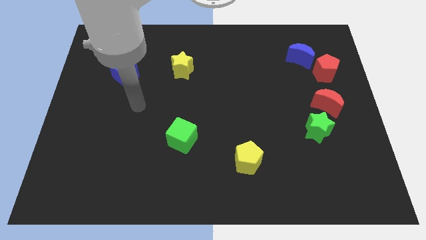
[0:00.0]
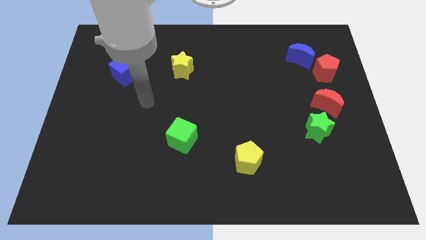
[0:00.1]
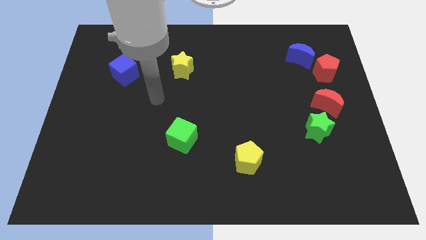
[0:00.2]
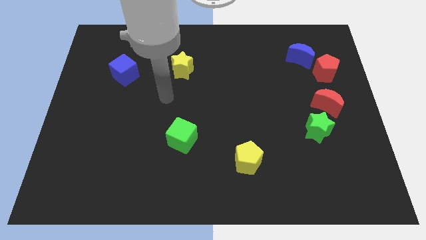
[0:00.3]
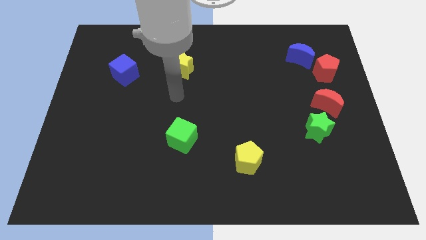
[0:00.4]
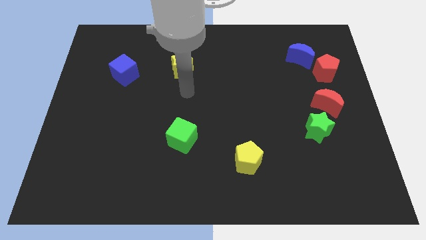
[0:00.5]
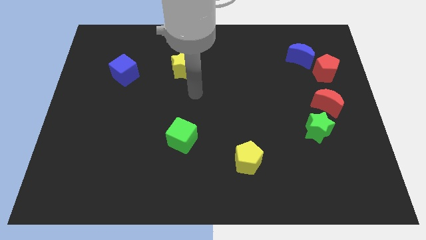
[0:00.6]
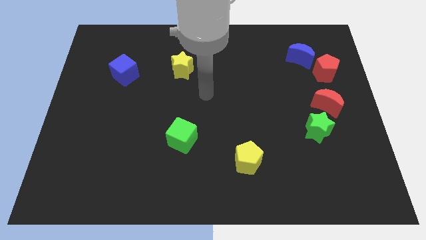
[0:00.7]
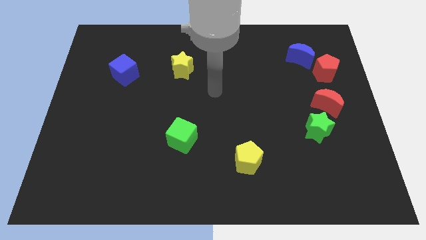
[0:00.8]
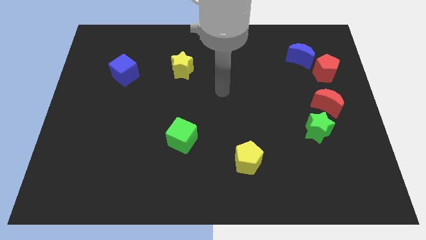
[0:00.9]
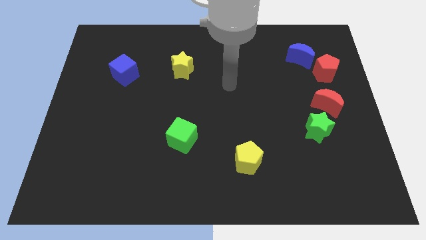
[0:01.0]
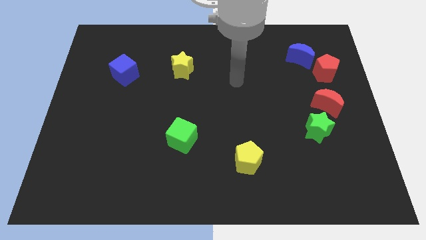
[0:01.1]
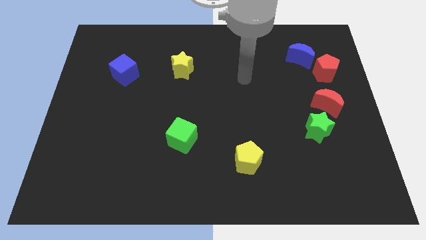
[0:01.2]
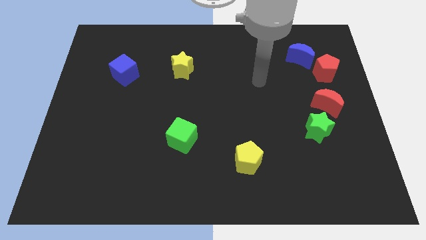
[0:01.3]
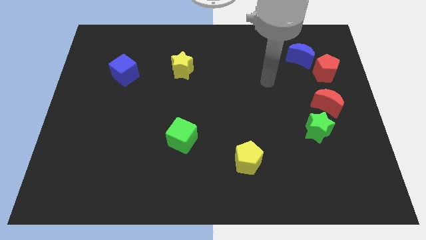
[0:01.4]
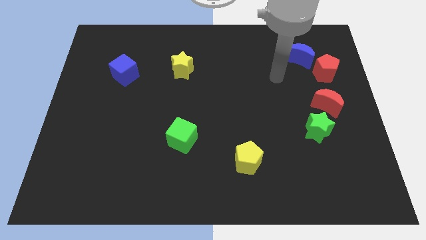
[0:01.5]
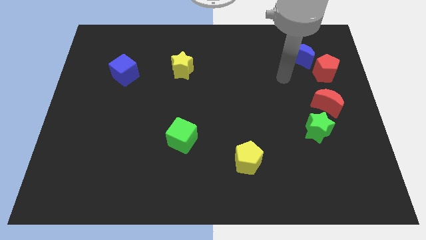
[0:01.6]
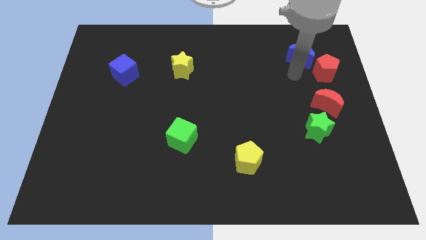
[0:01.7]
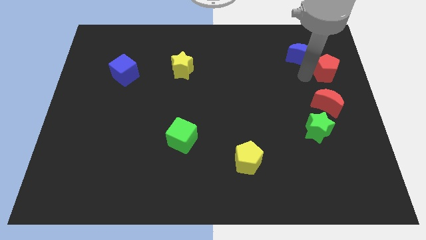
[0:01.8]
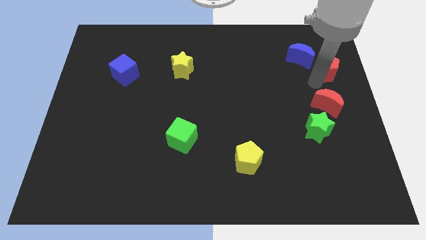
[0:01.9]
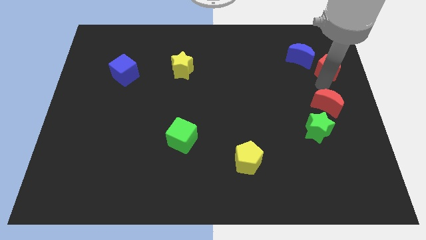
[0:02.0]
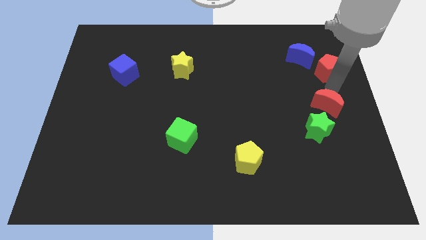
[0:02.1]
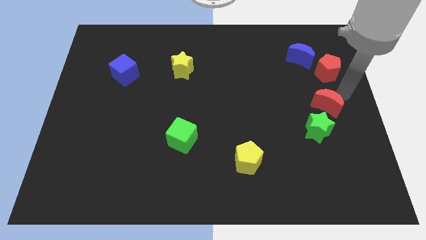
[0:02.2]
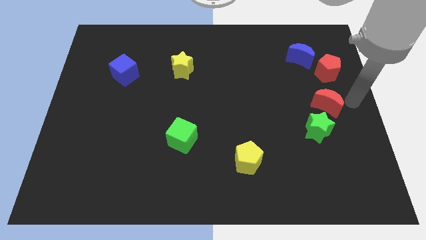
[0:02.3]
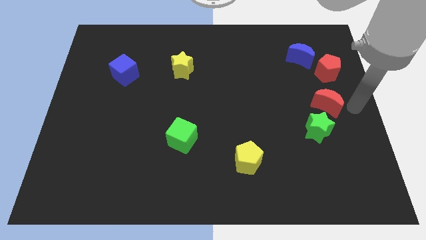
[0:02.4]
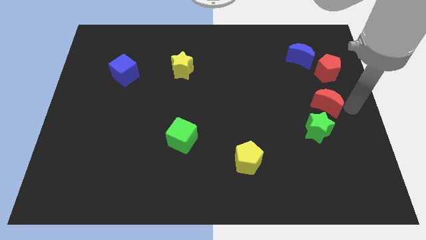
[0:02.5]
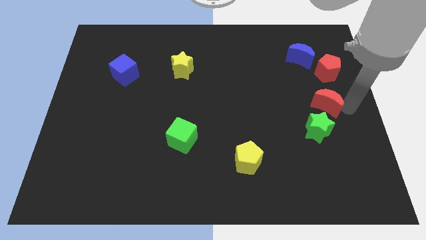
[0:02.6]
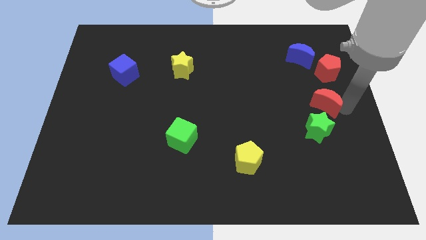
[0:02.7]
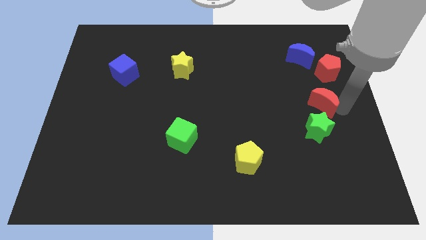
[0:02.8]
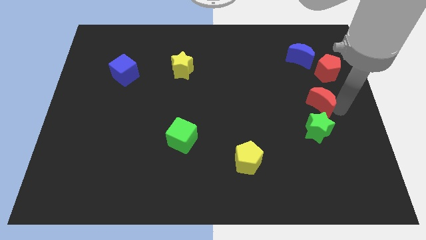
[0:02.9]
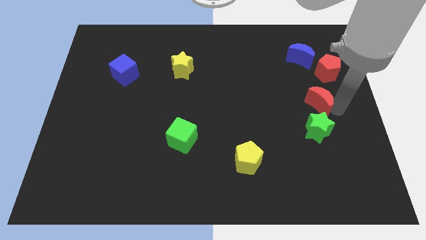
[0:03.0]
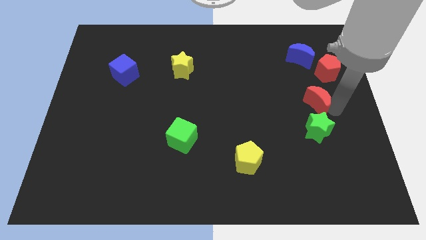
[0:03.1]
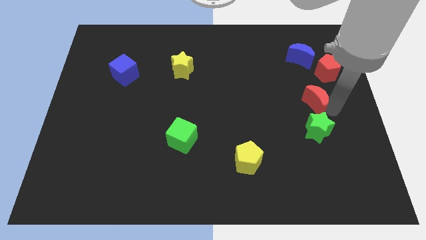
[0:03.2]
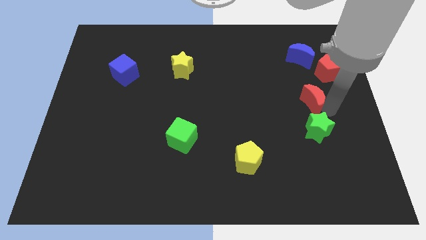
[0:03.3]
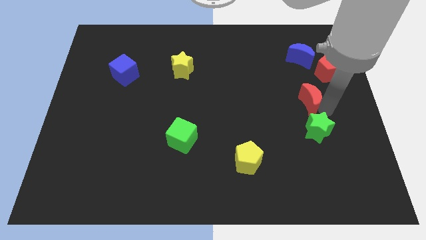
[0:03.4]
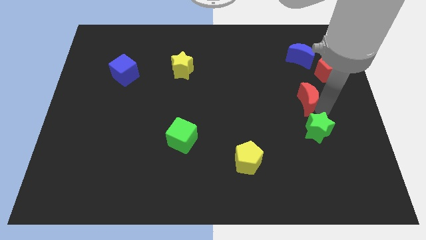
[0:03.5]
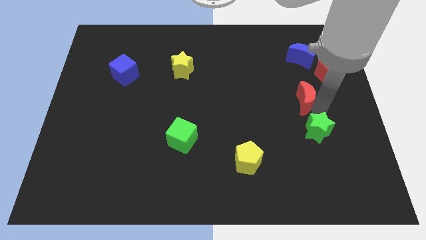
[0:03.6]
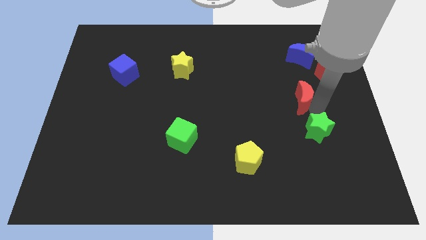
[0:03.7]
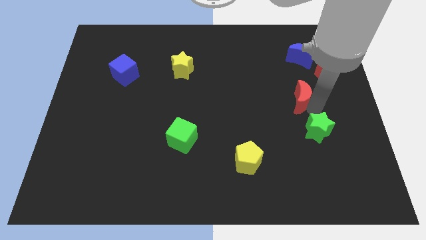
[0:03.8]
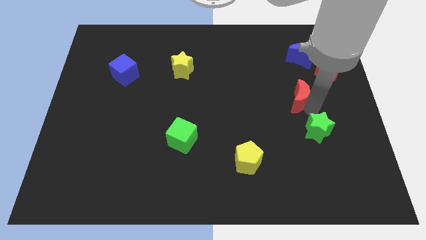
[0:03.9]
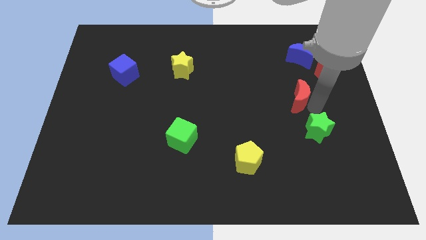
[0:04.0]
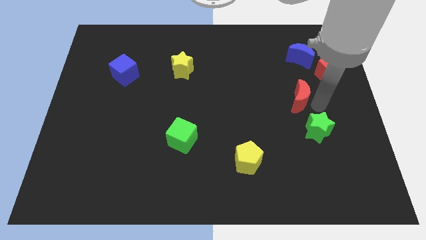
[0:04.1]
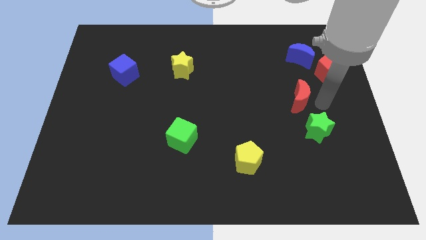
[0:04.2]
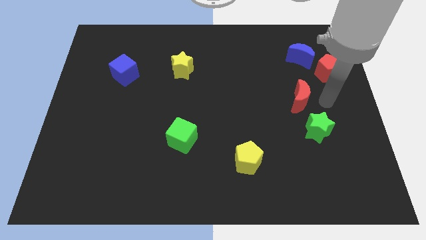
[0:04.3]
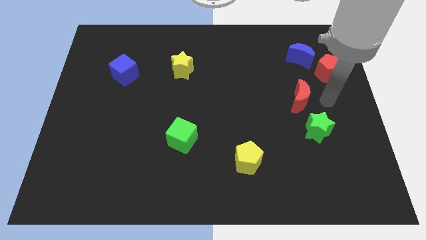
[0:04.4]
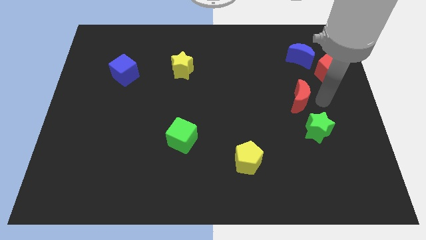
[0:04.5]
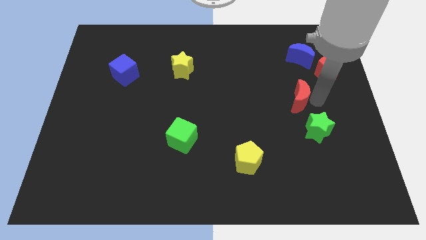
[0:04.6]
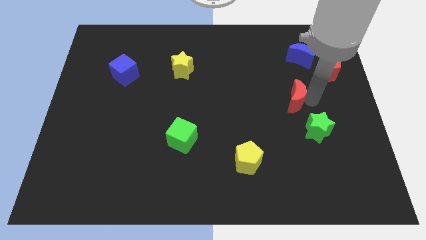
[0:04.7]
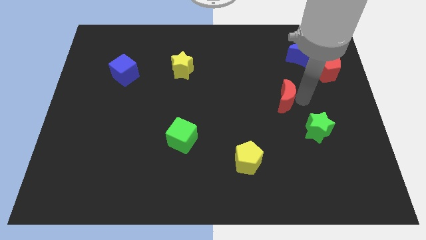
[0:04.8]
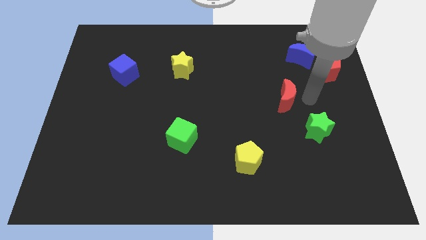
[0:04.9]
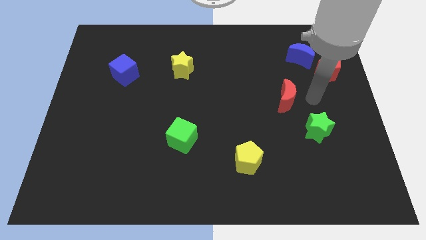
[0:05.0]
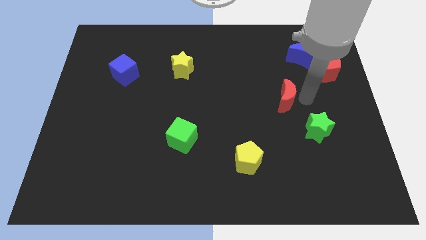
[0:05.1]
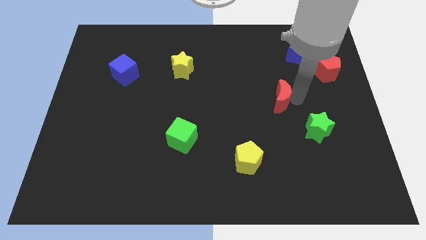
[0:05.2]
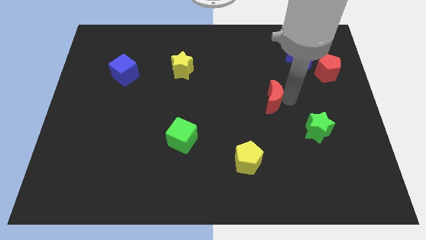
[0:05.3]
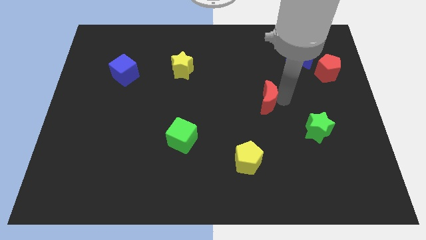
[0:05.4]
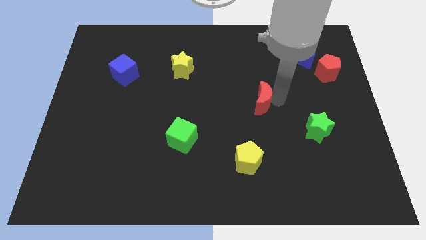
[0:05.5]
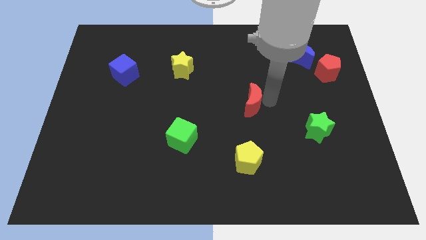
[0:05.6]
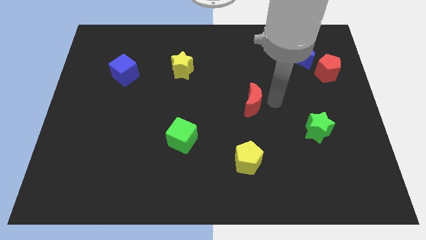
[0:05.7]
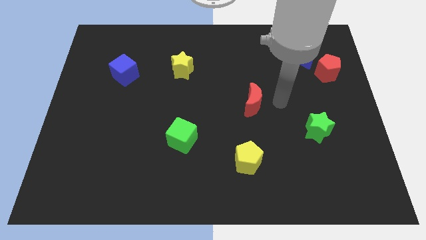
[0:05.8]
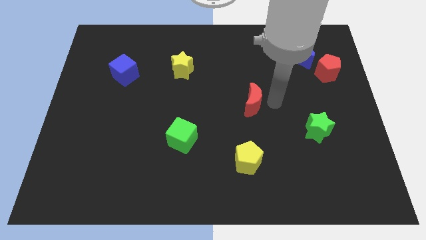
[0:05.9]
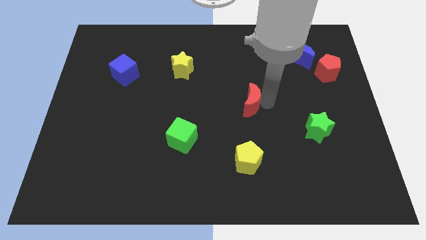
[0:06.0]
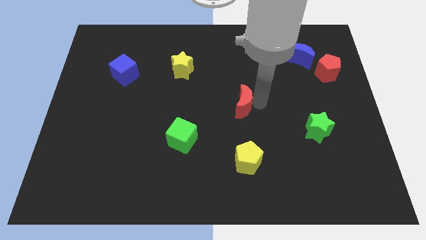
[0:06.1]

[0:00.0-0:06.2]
slide the red moon to the left

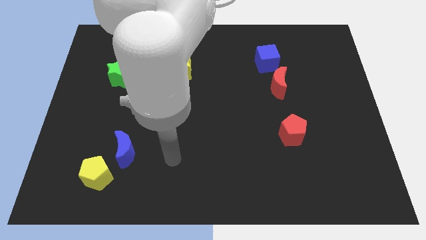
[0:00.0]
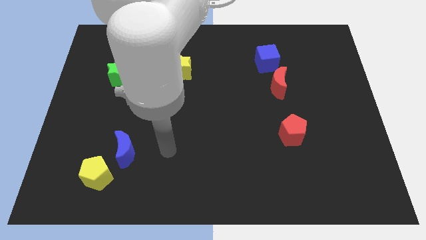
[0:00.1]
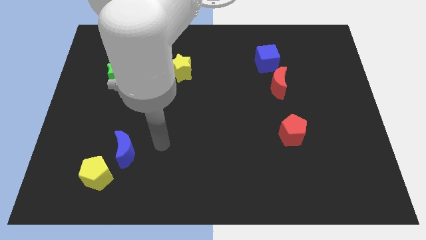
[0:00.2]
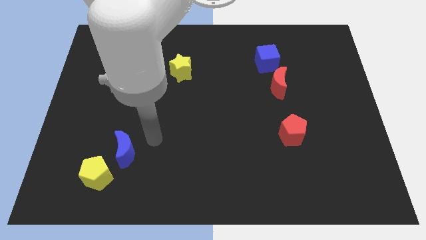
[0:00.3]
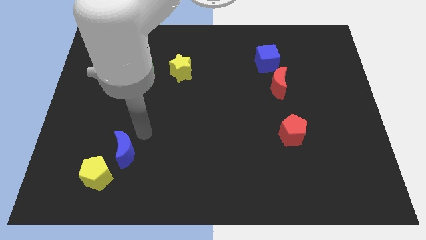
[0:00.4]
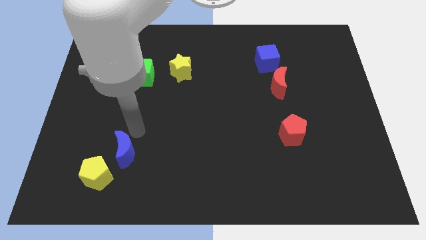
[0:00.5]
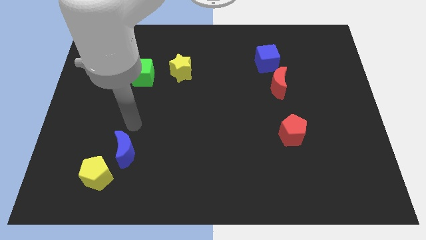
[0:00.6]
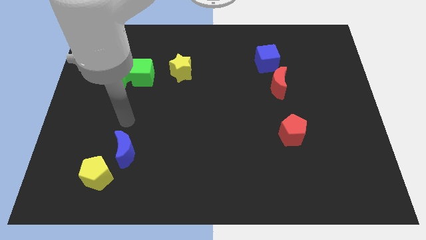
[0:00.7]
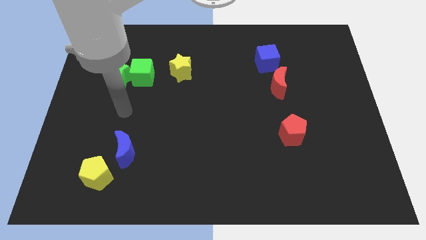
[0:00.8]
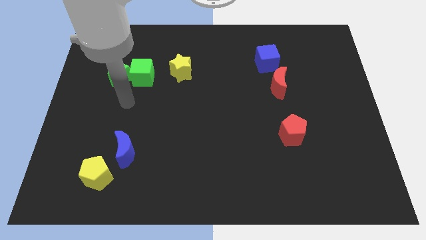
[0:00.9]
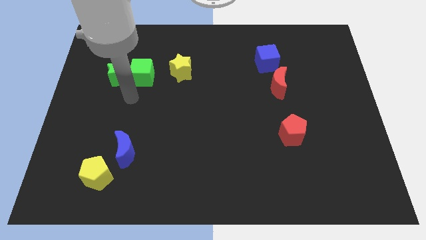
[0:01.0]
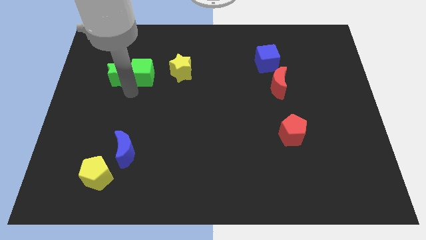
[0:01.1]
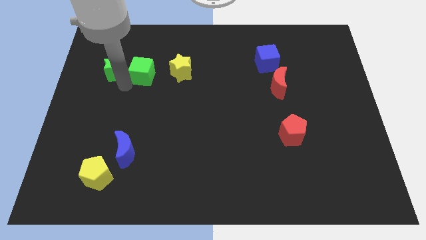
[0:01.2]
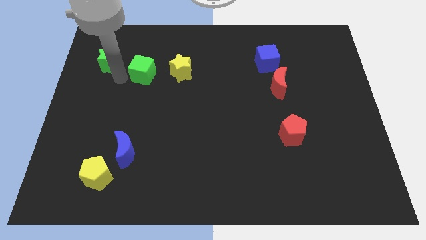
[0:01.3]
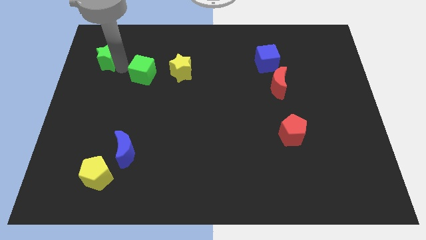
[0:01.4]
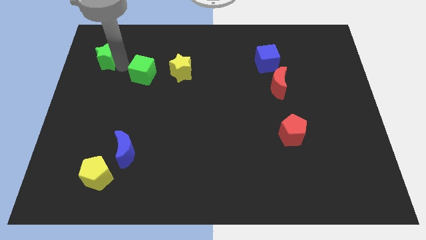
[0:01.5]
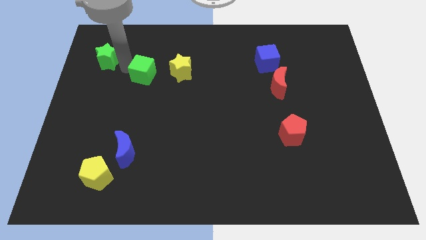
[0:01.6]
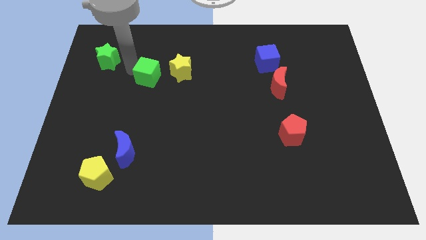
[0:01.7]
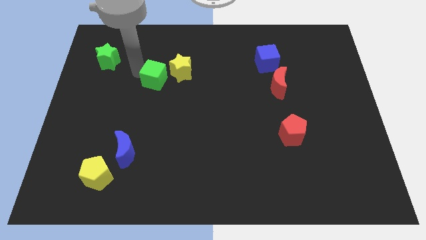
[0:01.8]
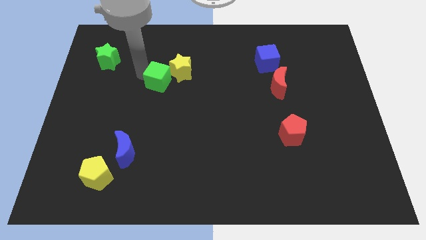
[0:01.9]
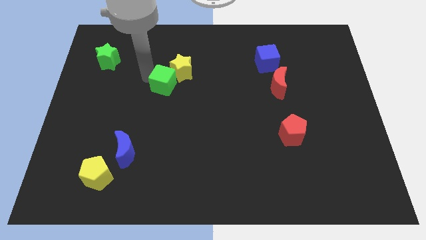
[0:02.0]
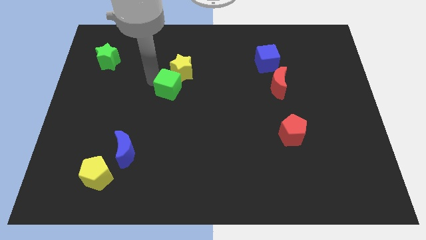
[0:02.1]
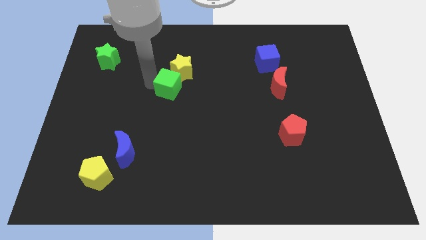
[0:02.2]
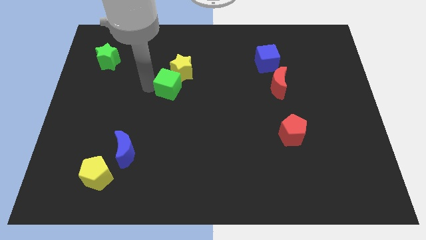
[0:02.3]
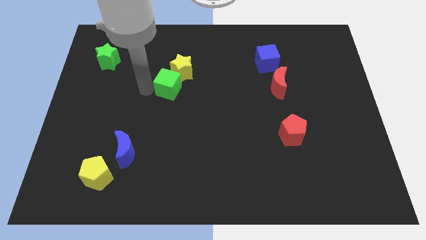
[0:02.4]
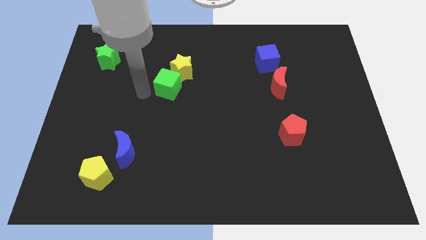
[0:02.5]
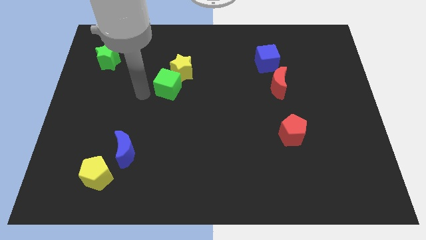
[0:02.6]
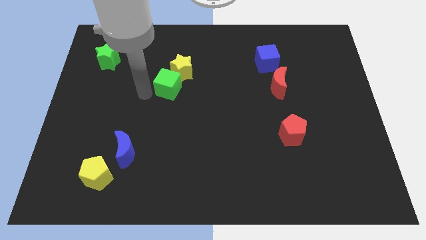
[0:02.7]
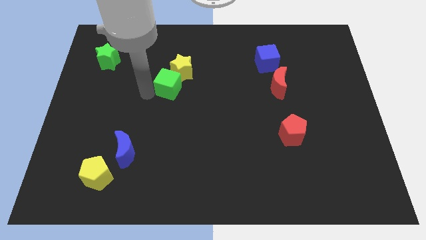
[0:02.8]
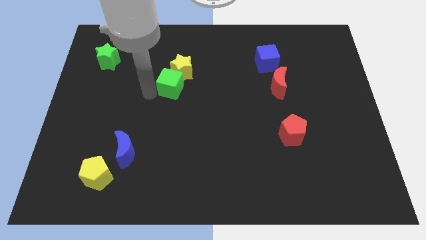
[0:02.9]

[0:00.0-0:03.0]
push the green cube to the right a little
